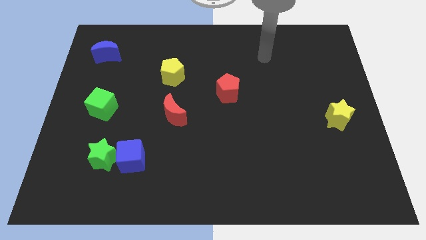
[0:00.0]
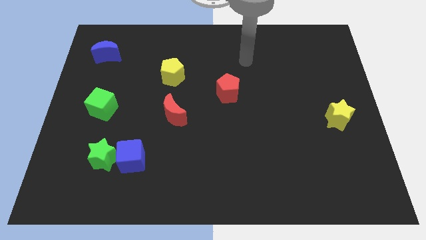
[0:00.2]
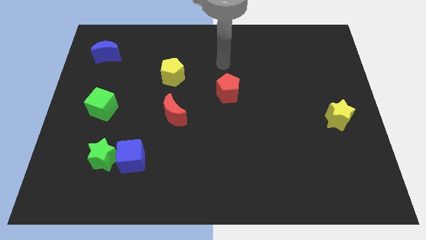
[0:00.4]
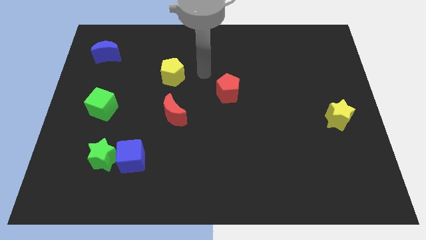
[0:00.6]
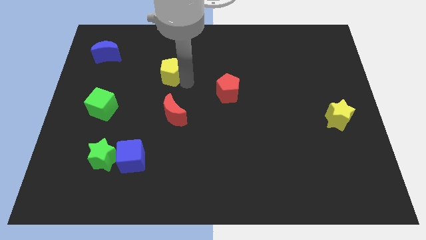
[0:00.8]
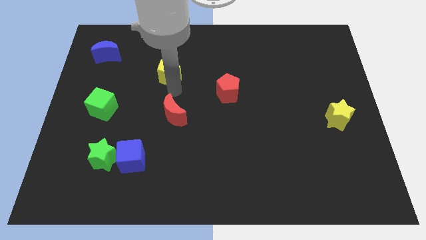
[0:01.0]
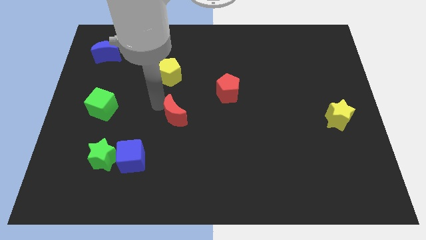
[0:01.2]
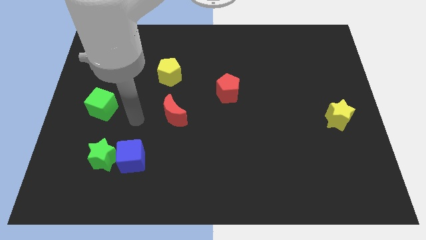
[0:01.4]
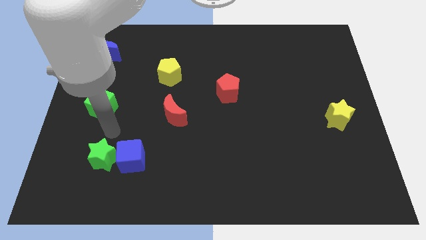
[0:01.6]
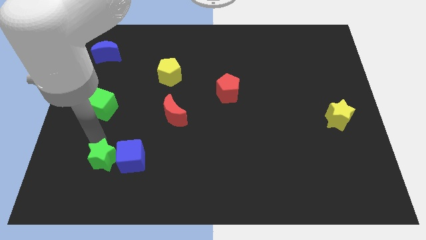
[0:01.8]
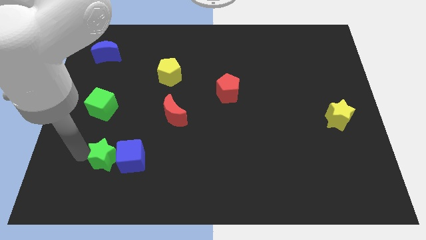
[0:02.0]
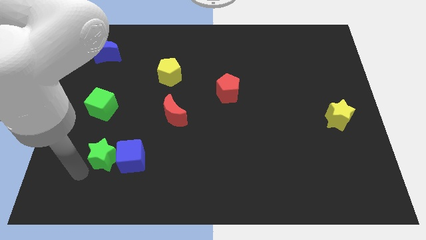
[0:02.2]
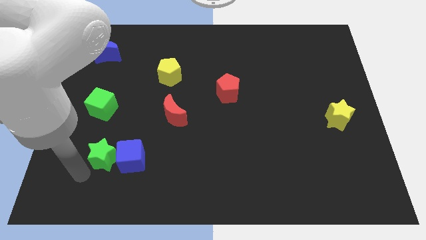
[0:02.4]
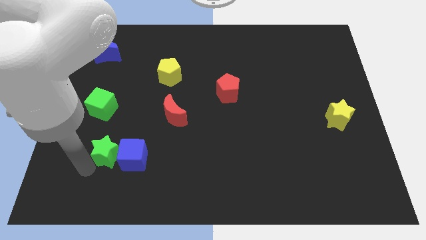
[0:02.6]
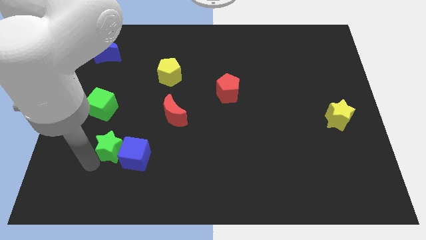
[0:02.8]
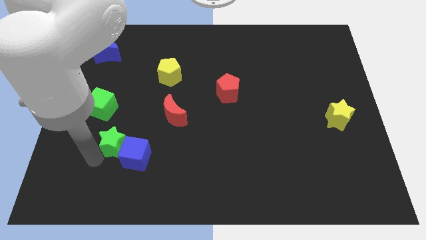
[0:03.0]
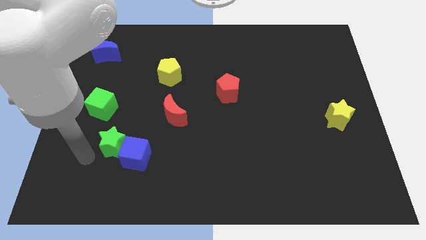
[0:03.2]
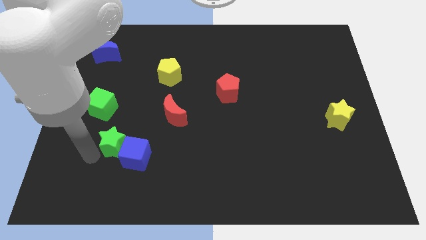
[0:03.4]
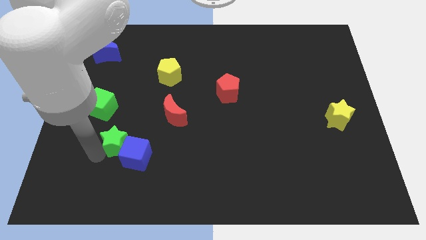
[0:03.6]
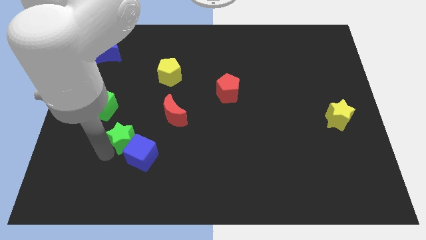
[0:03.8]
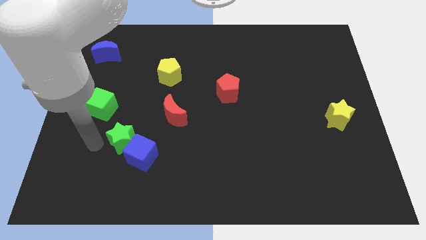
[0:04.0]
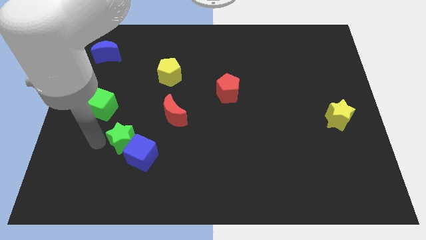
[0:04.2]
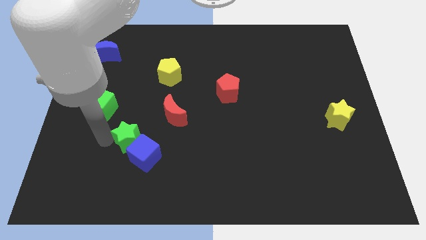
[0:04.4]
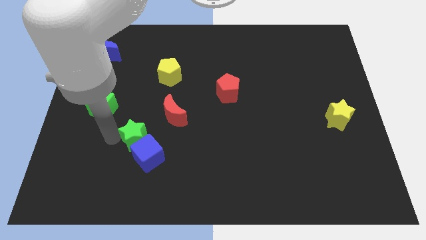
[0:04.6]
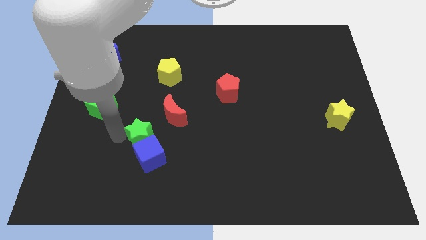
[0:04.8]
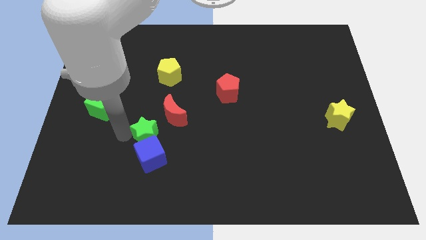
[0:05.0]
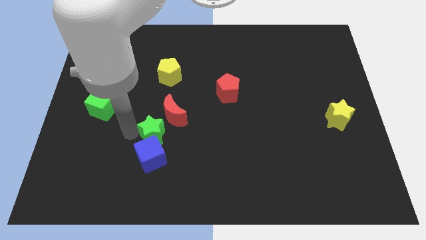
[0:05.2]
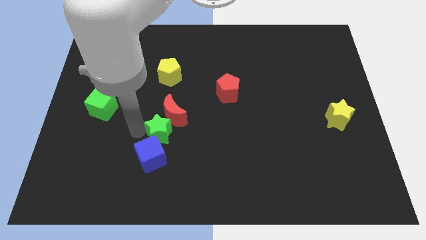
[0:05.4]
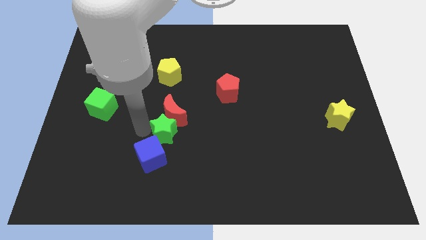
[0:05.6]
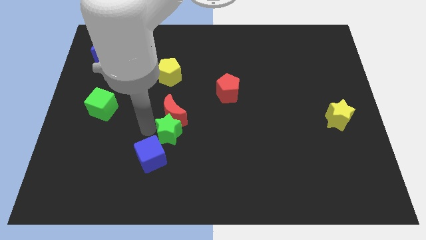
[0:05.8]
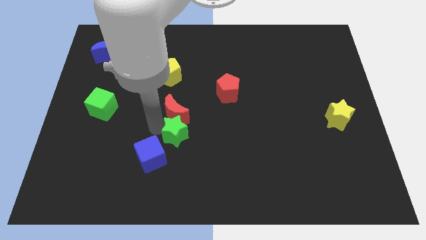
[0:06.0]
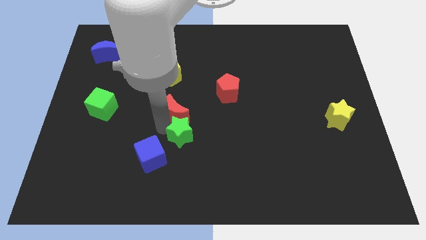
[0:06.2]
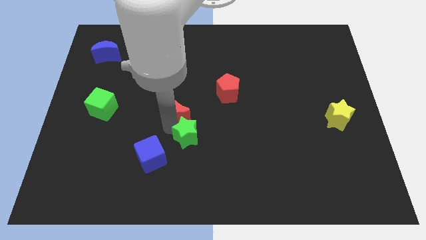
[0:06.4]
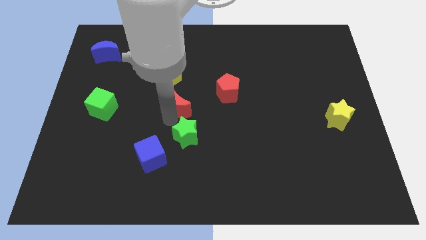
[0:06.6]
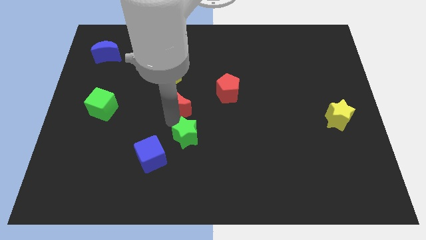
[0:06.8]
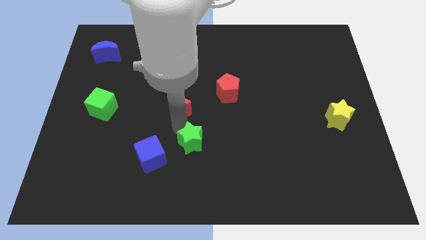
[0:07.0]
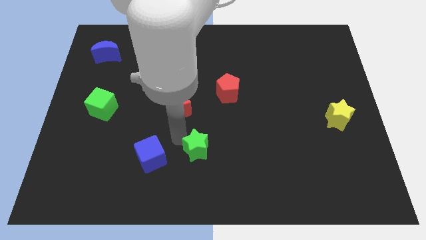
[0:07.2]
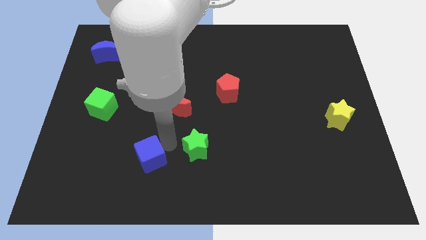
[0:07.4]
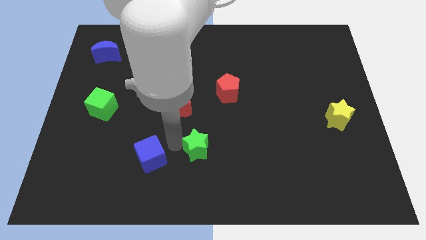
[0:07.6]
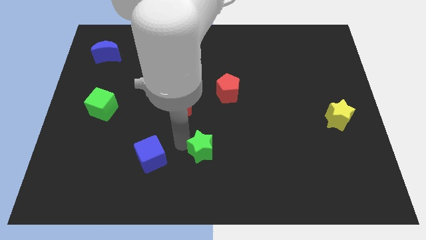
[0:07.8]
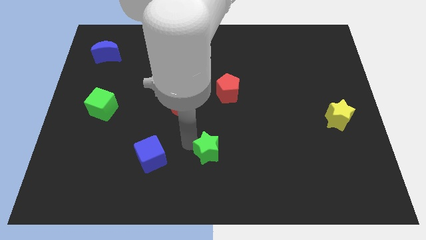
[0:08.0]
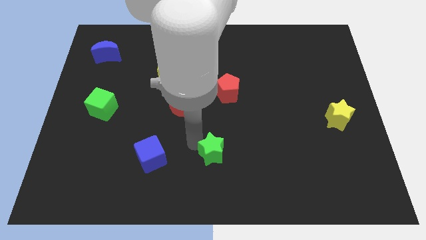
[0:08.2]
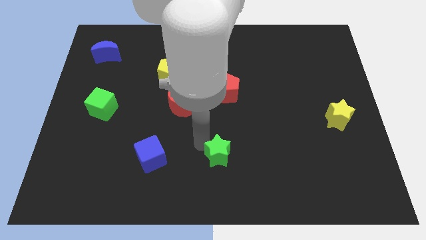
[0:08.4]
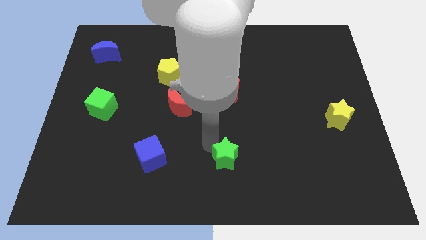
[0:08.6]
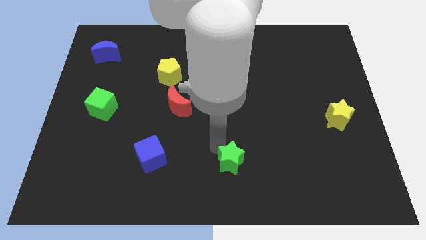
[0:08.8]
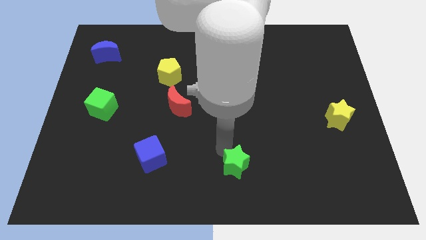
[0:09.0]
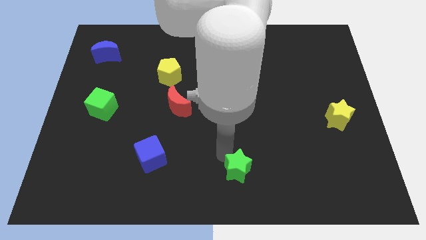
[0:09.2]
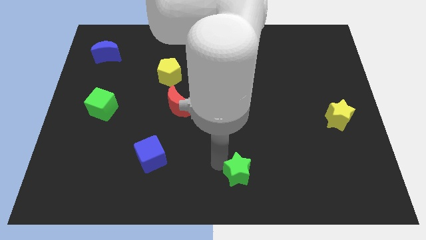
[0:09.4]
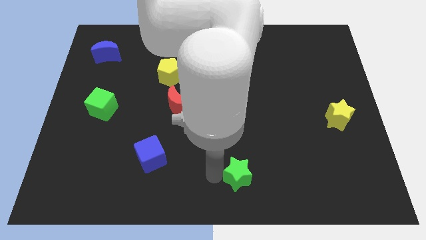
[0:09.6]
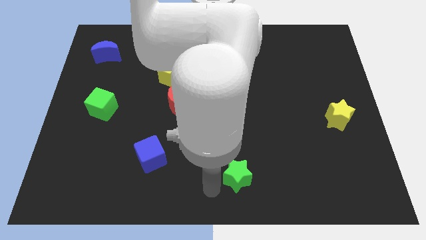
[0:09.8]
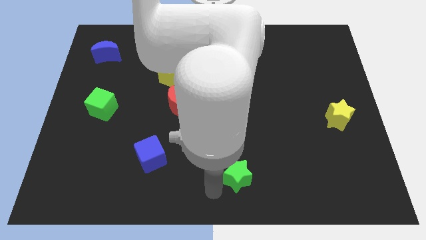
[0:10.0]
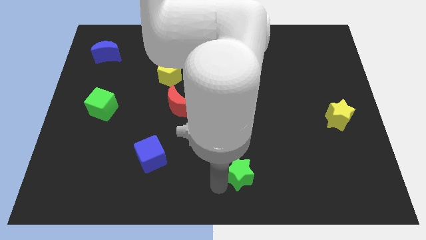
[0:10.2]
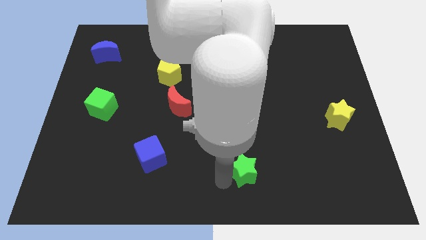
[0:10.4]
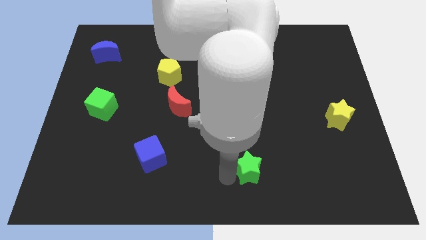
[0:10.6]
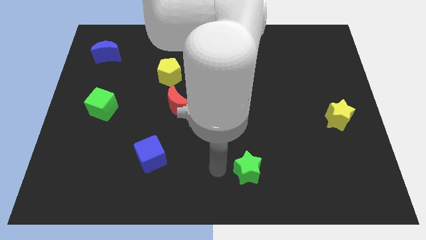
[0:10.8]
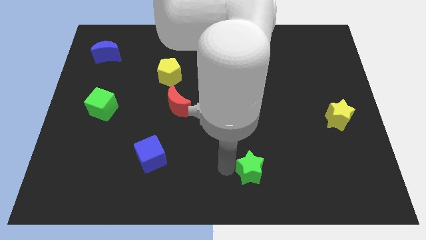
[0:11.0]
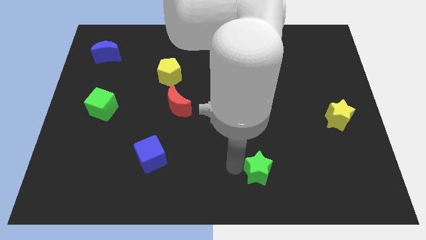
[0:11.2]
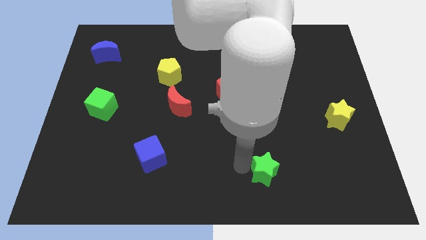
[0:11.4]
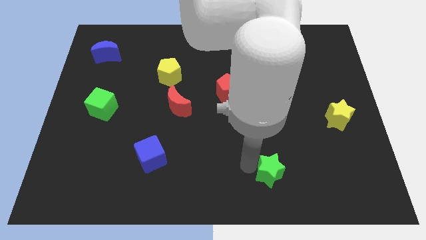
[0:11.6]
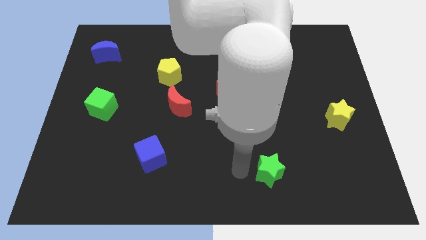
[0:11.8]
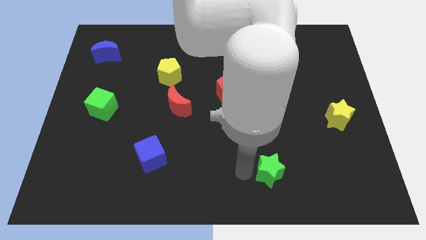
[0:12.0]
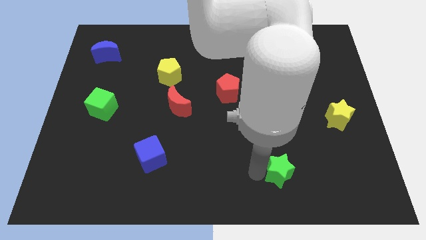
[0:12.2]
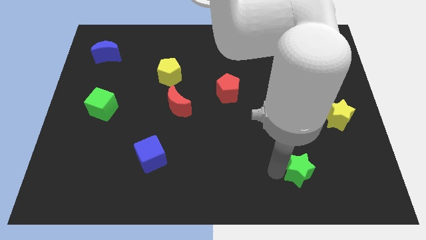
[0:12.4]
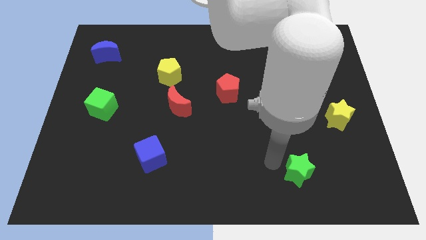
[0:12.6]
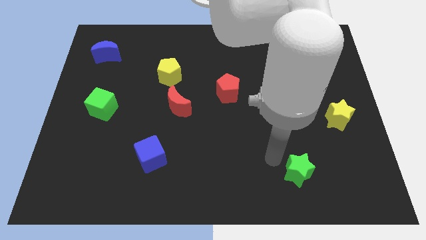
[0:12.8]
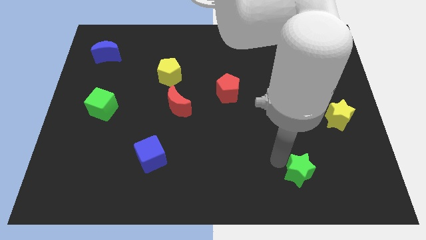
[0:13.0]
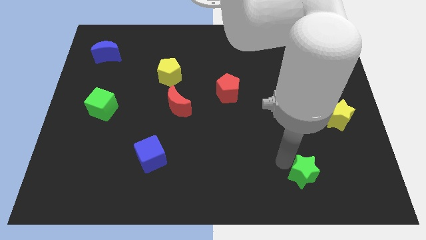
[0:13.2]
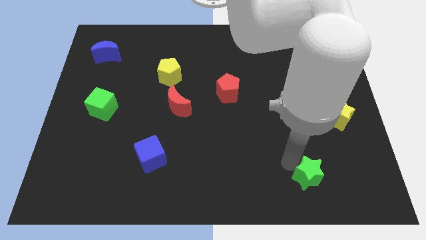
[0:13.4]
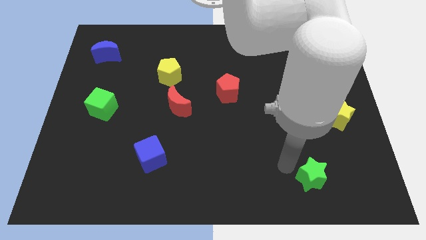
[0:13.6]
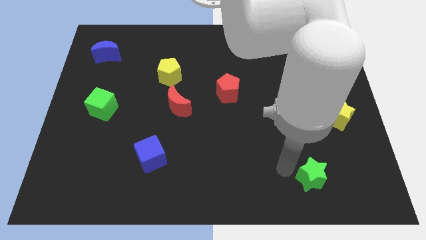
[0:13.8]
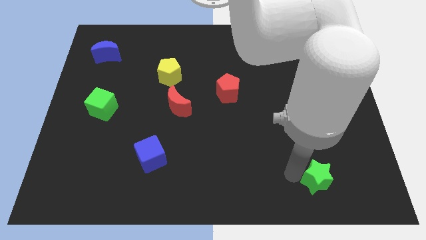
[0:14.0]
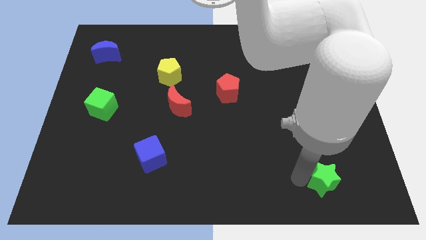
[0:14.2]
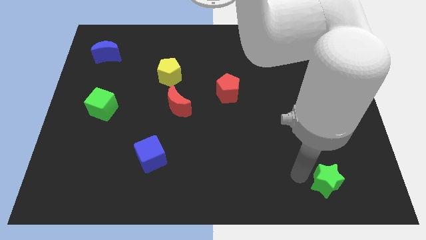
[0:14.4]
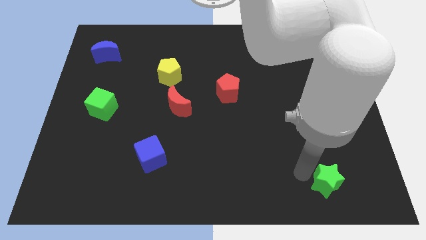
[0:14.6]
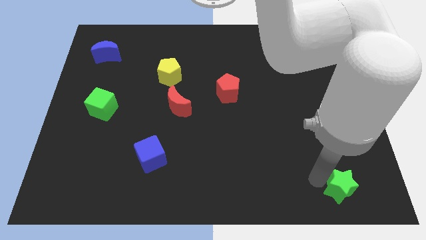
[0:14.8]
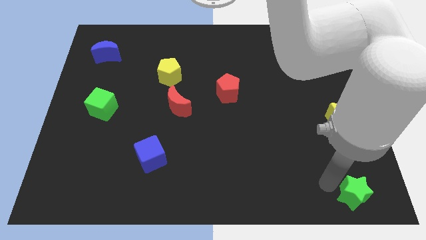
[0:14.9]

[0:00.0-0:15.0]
push the green star to the bottom right of the board
